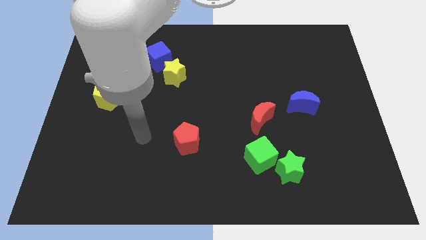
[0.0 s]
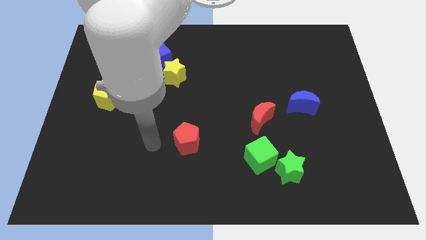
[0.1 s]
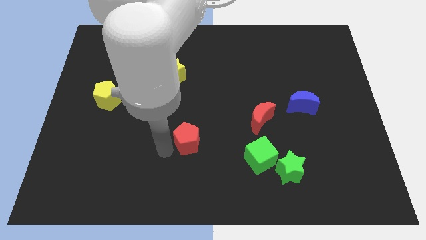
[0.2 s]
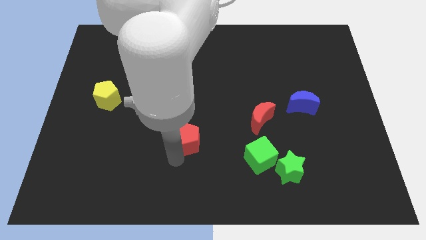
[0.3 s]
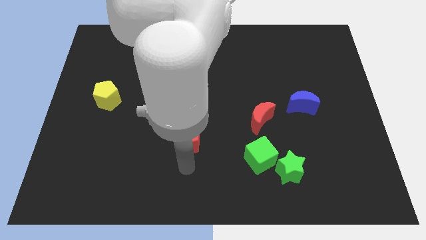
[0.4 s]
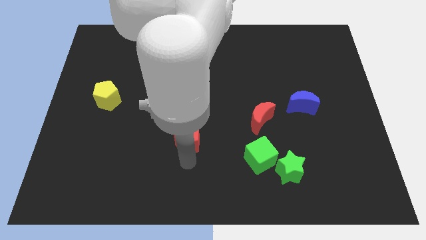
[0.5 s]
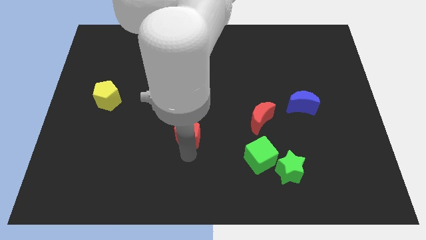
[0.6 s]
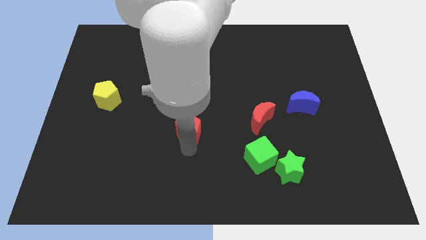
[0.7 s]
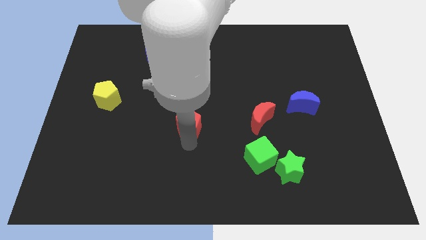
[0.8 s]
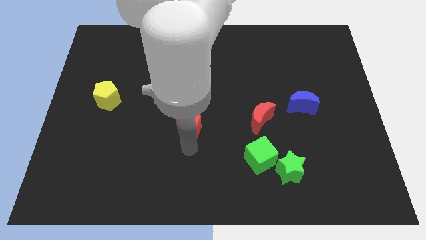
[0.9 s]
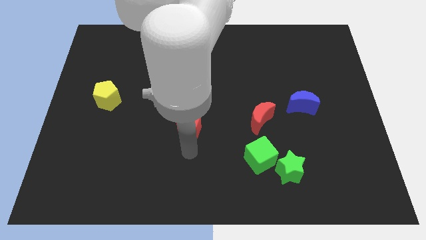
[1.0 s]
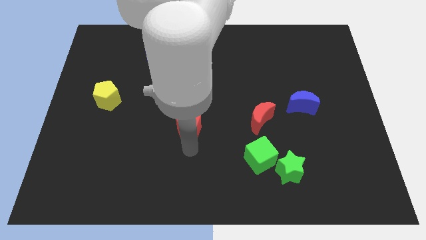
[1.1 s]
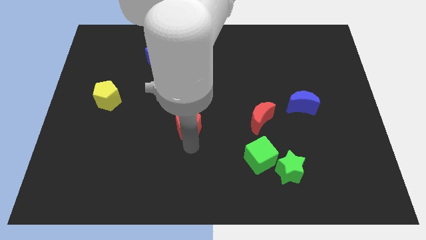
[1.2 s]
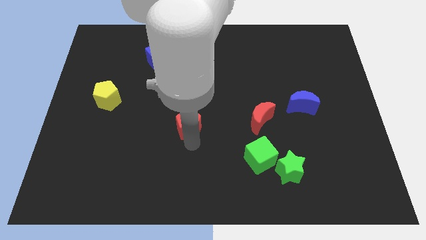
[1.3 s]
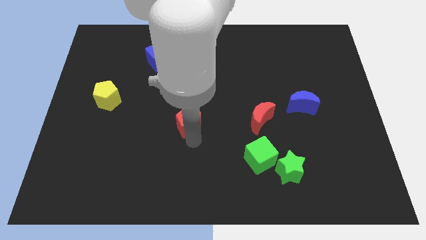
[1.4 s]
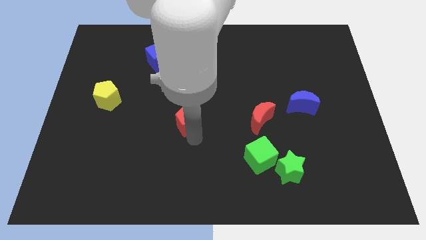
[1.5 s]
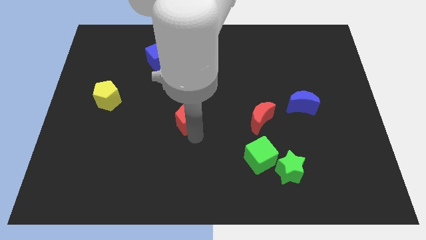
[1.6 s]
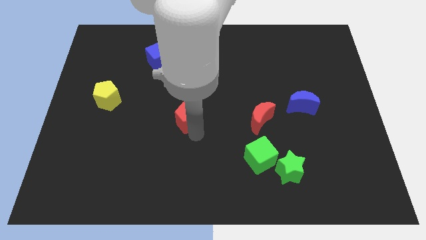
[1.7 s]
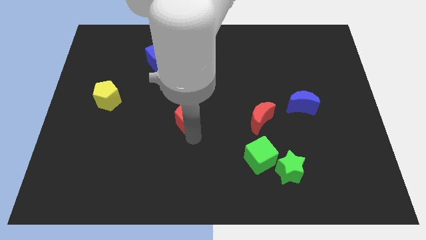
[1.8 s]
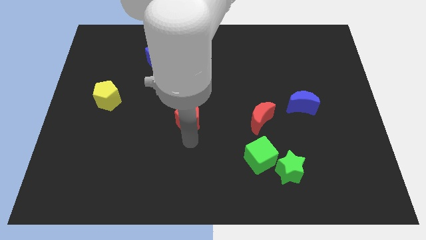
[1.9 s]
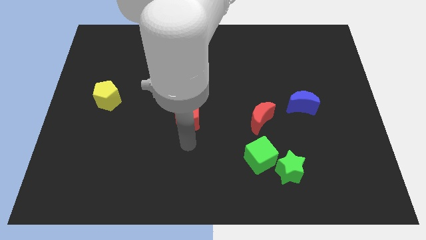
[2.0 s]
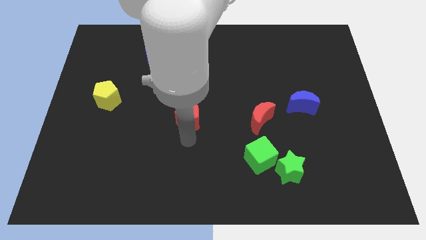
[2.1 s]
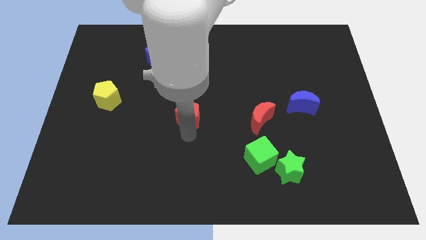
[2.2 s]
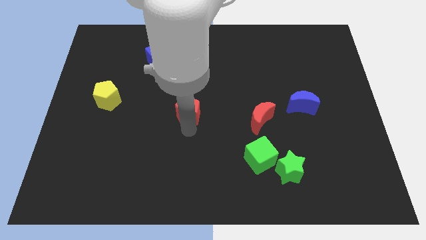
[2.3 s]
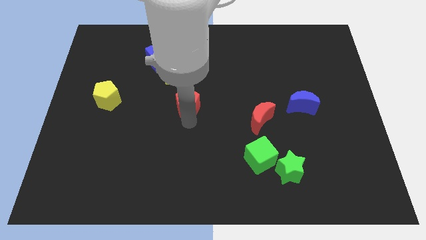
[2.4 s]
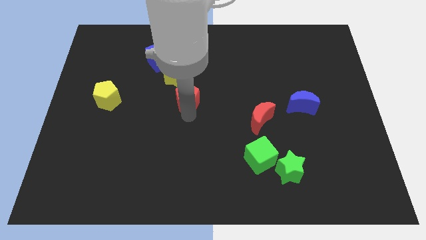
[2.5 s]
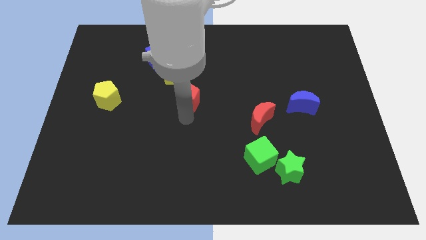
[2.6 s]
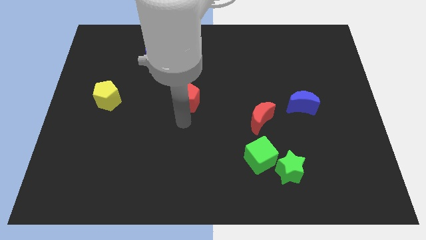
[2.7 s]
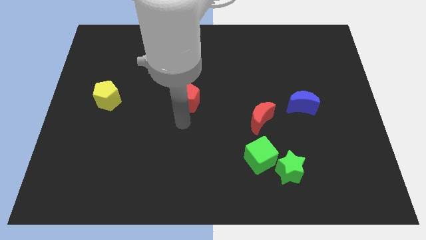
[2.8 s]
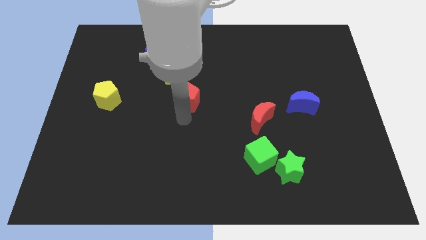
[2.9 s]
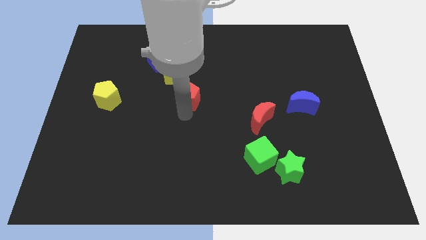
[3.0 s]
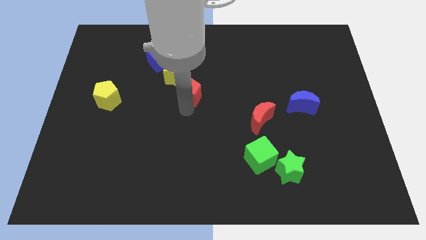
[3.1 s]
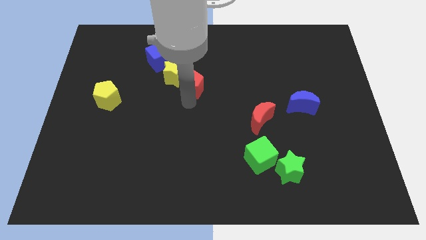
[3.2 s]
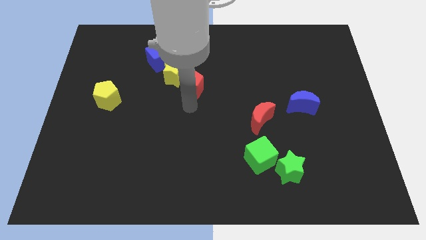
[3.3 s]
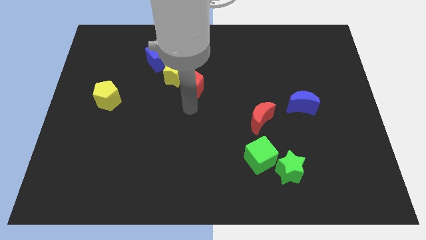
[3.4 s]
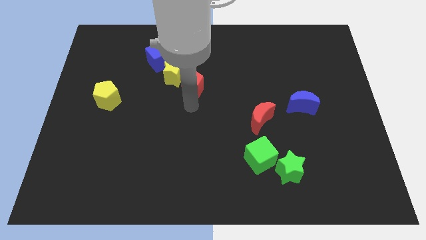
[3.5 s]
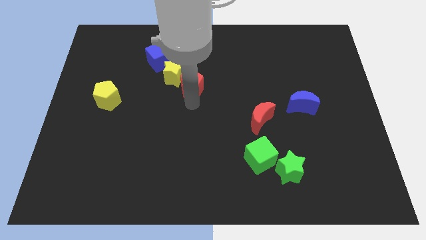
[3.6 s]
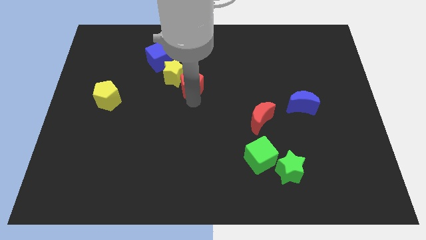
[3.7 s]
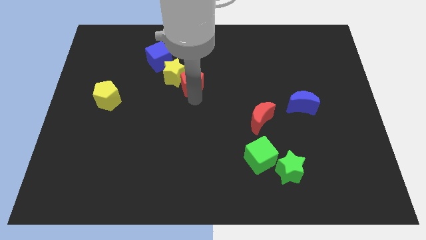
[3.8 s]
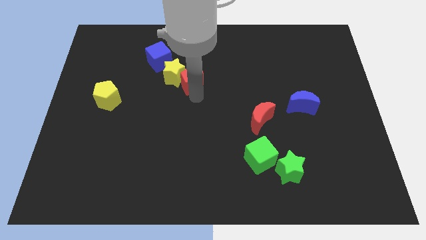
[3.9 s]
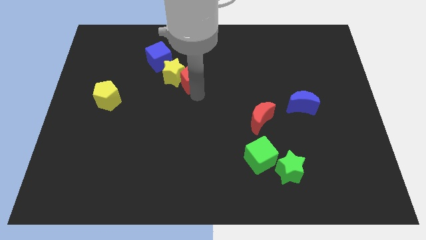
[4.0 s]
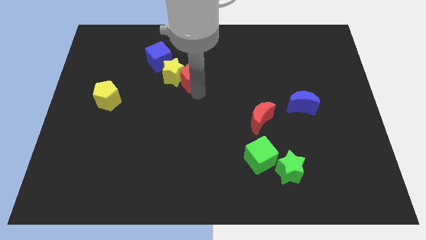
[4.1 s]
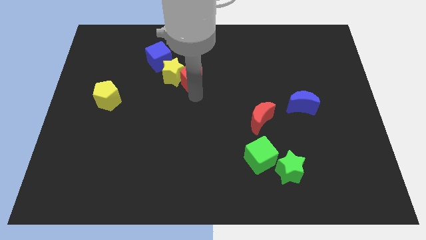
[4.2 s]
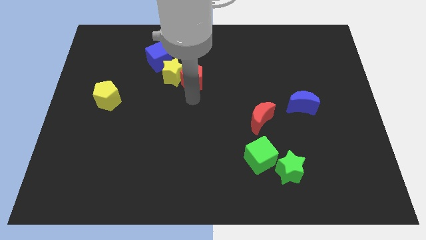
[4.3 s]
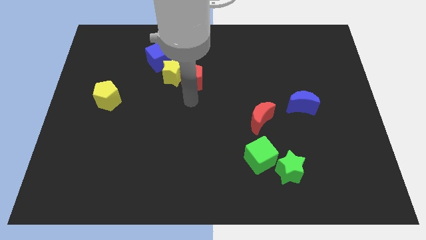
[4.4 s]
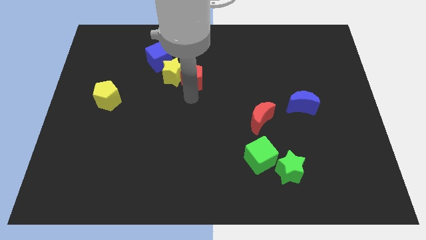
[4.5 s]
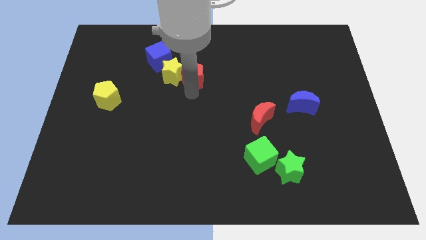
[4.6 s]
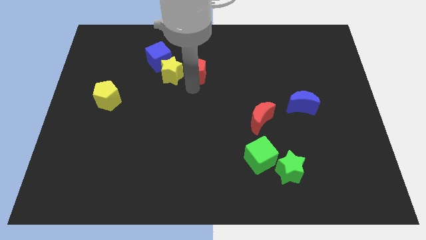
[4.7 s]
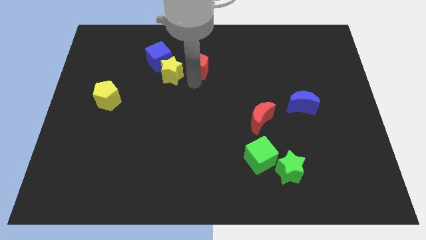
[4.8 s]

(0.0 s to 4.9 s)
move the red pentagon right of the blue cube

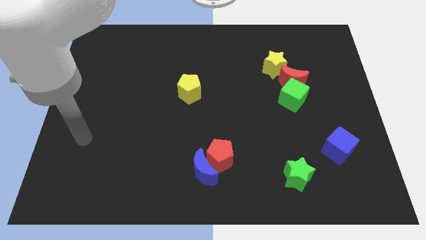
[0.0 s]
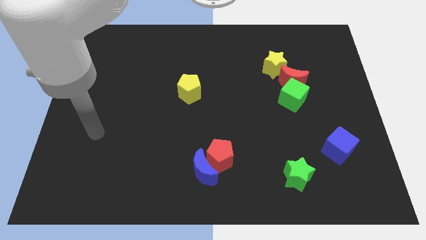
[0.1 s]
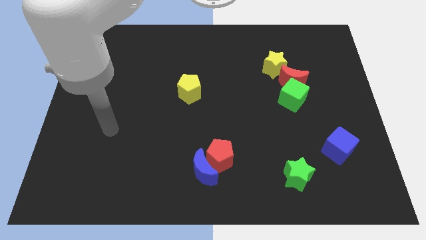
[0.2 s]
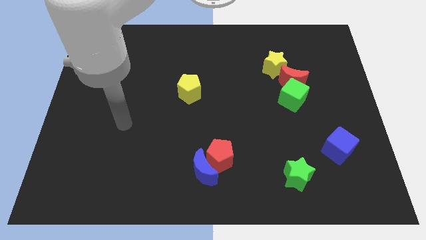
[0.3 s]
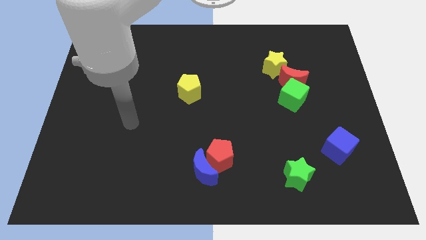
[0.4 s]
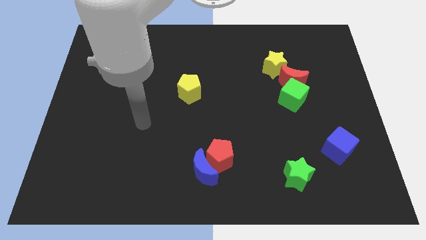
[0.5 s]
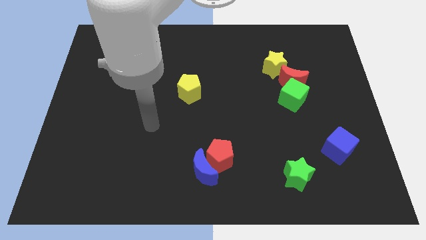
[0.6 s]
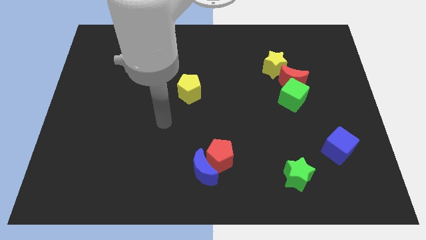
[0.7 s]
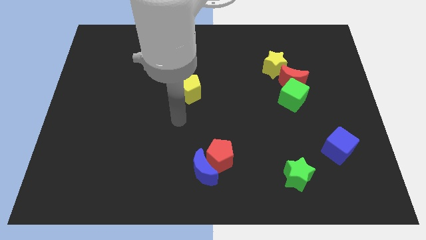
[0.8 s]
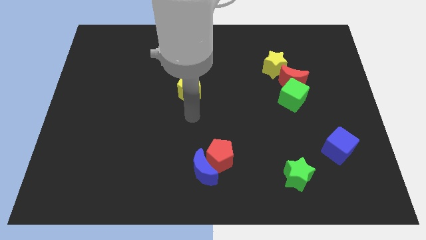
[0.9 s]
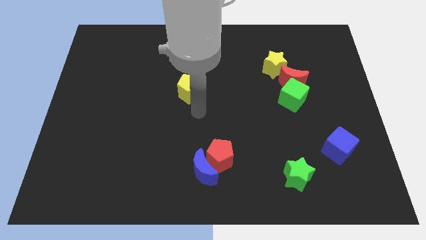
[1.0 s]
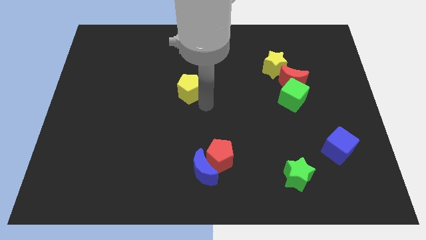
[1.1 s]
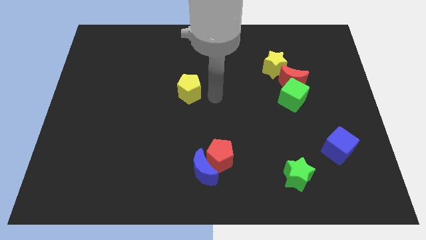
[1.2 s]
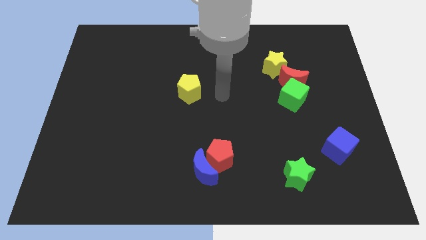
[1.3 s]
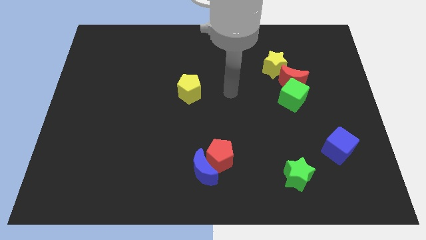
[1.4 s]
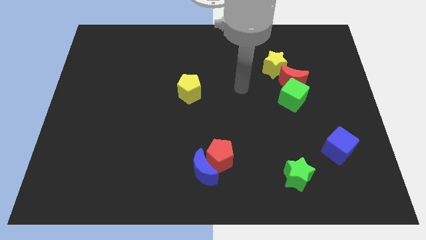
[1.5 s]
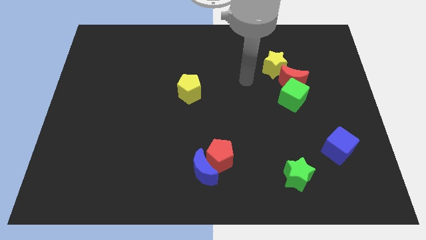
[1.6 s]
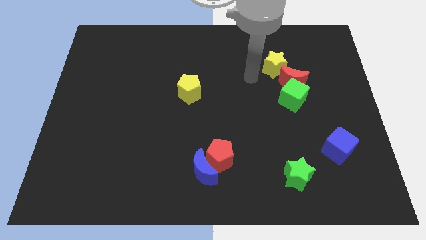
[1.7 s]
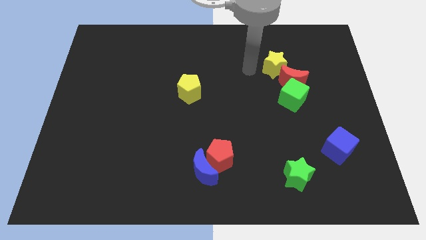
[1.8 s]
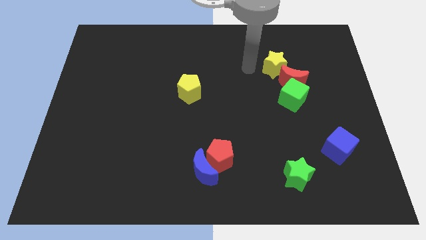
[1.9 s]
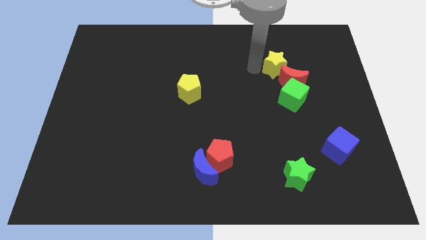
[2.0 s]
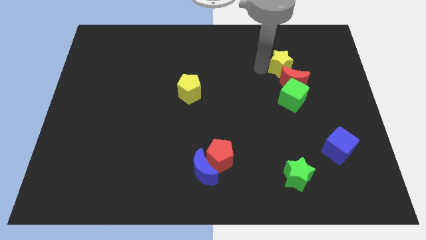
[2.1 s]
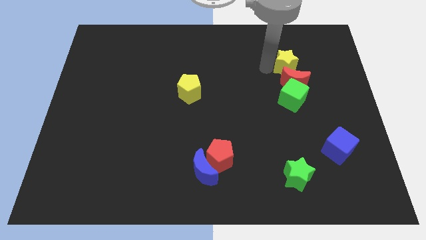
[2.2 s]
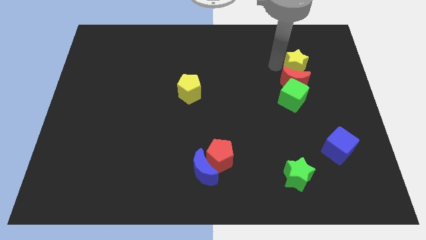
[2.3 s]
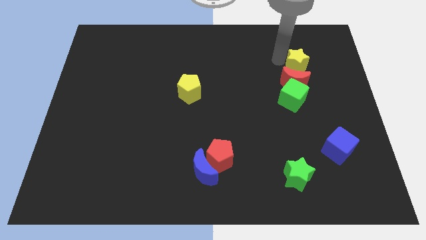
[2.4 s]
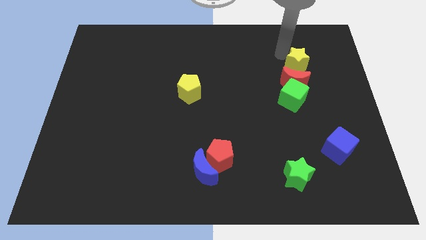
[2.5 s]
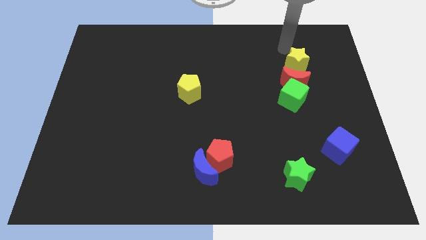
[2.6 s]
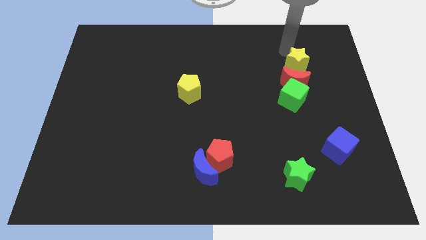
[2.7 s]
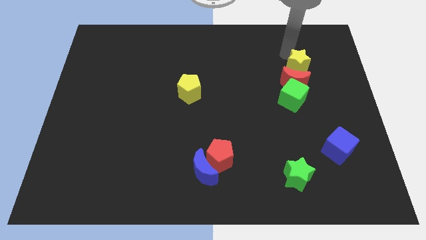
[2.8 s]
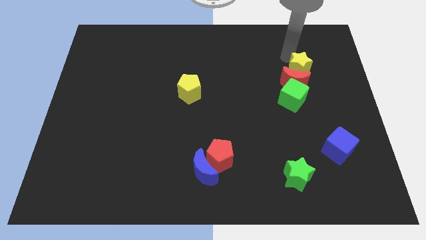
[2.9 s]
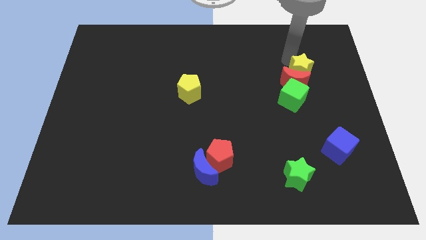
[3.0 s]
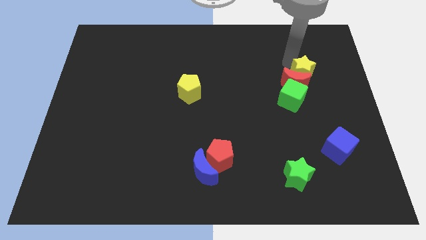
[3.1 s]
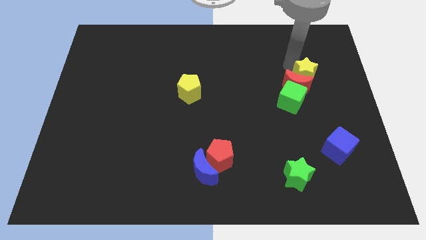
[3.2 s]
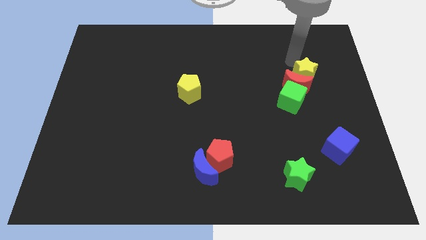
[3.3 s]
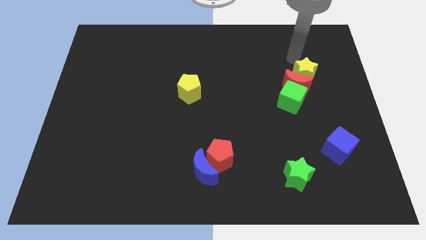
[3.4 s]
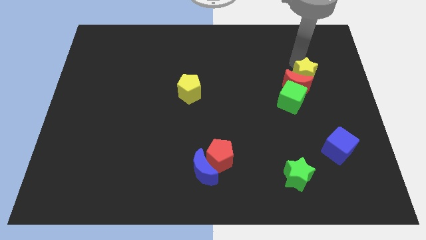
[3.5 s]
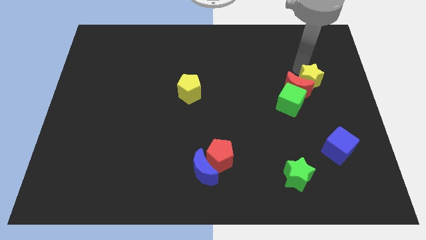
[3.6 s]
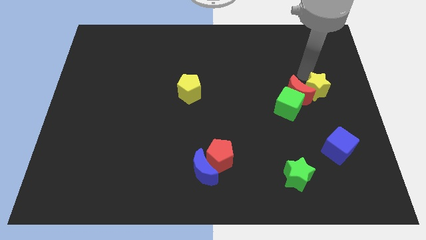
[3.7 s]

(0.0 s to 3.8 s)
slide the yellow star to the bottom right of the red moon
